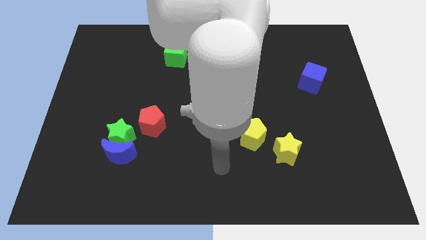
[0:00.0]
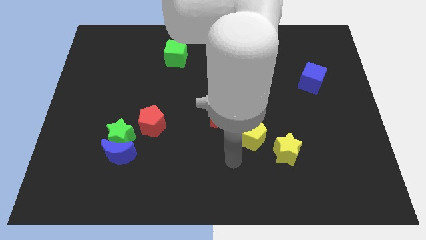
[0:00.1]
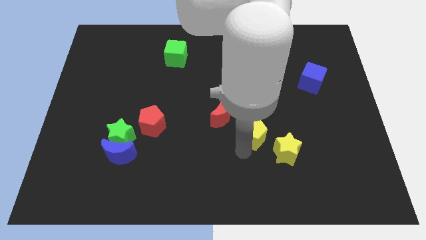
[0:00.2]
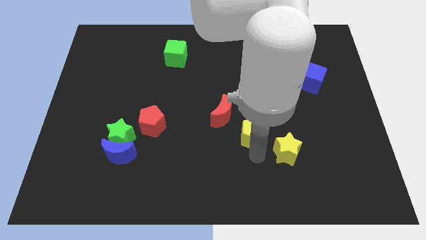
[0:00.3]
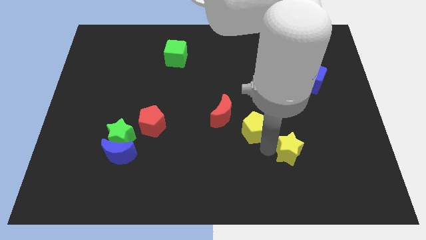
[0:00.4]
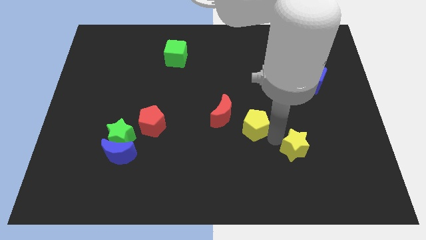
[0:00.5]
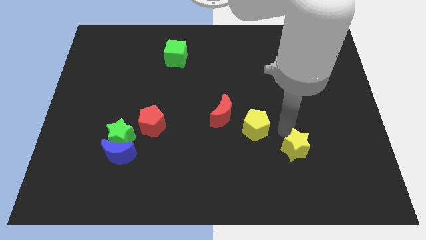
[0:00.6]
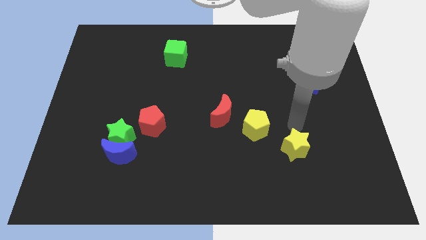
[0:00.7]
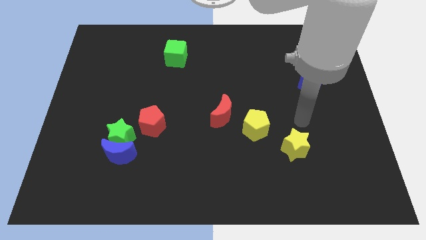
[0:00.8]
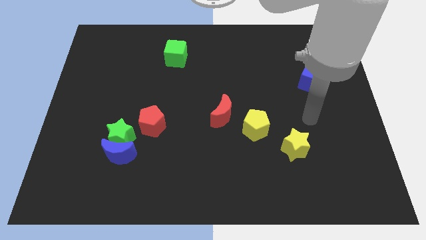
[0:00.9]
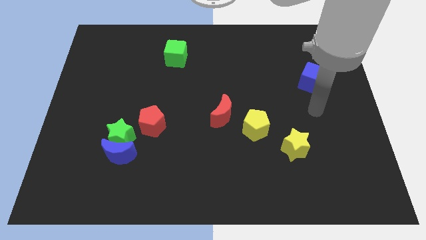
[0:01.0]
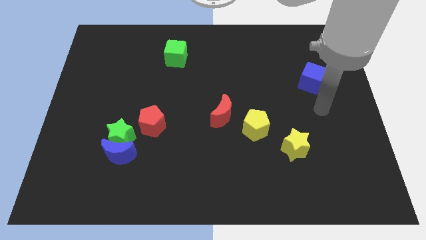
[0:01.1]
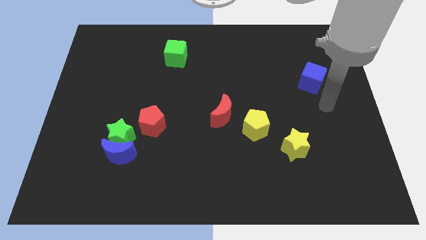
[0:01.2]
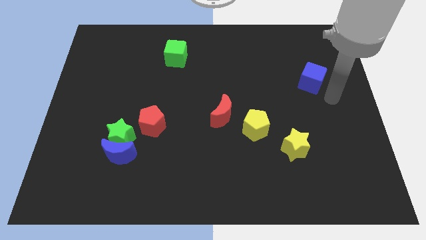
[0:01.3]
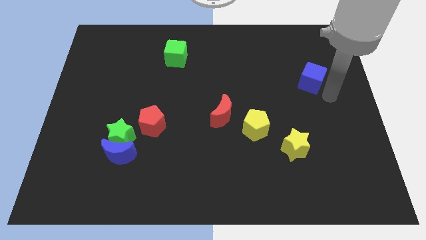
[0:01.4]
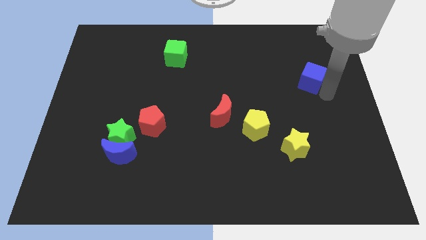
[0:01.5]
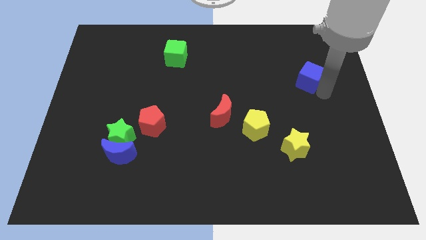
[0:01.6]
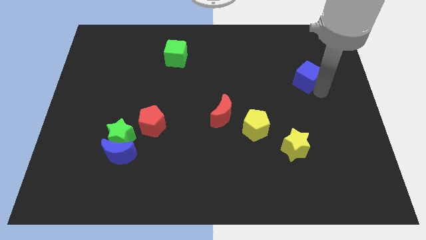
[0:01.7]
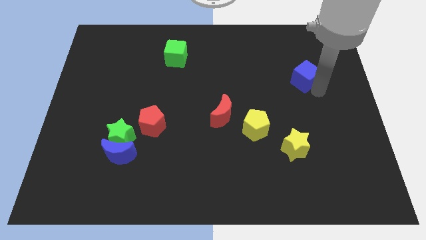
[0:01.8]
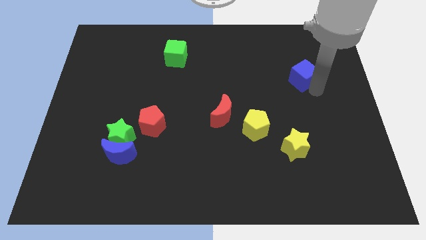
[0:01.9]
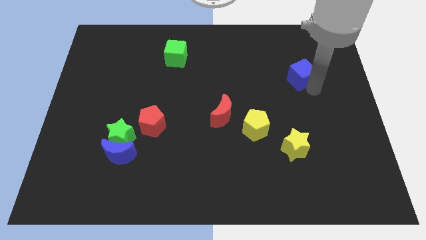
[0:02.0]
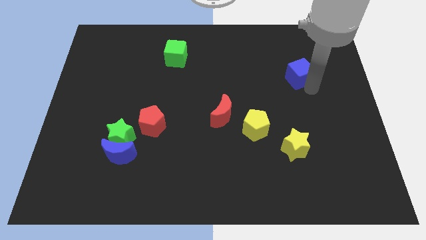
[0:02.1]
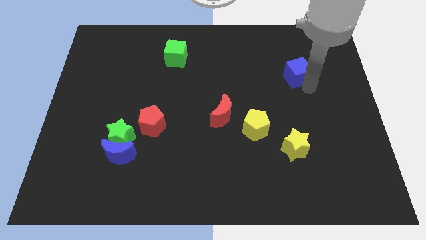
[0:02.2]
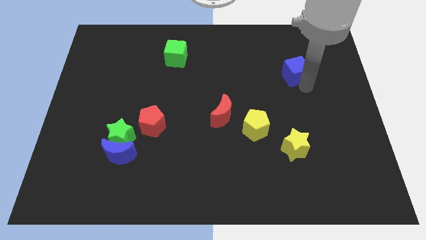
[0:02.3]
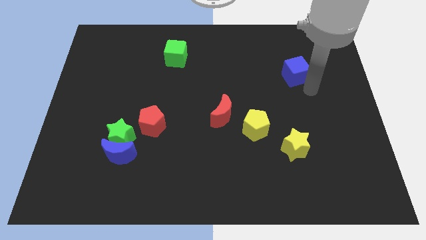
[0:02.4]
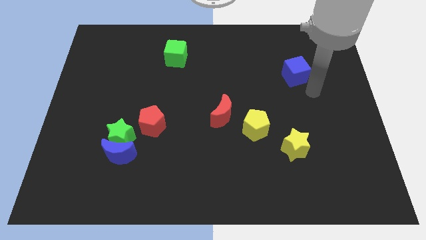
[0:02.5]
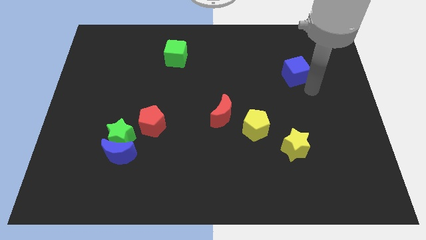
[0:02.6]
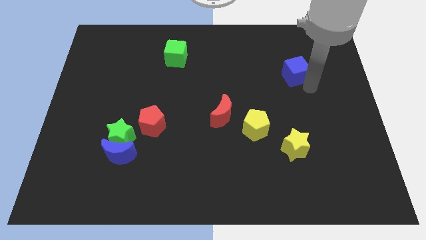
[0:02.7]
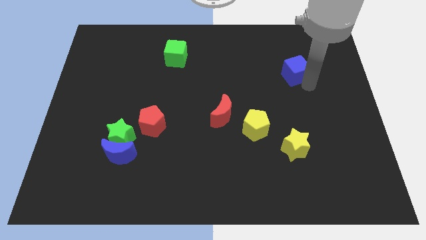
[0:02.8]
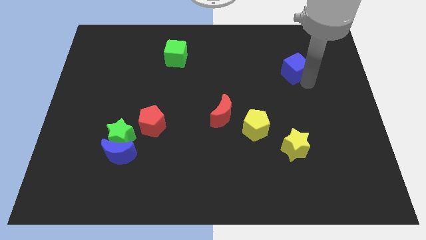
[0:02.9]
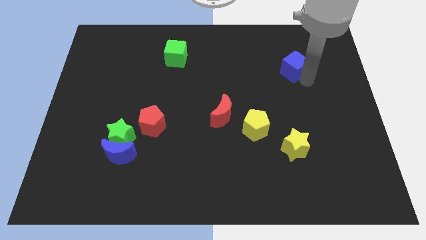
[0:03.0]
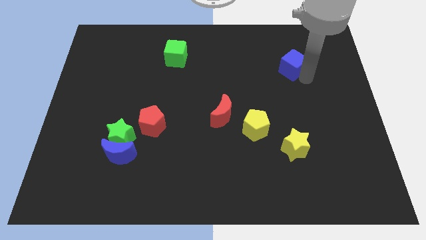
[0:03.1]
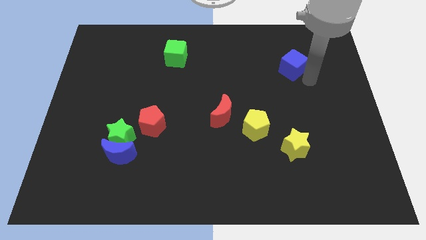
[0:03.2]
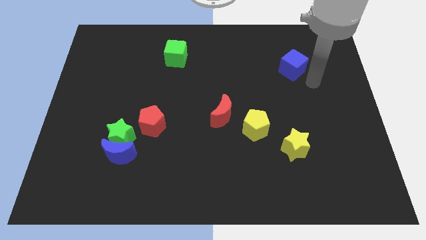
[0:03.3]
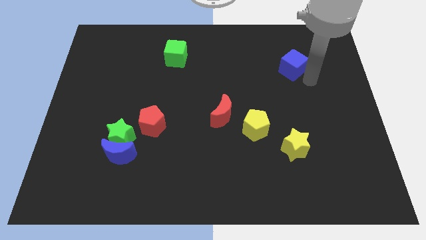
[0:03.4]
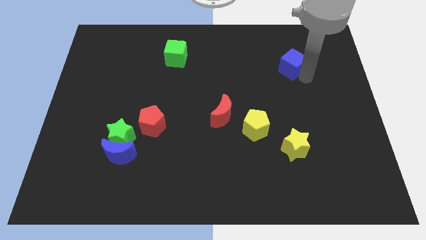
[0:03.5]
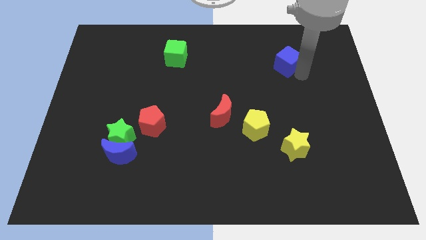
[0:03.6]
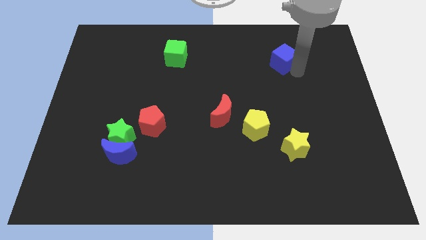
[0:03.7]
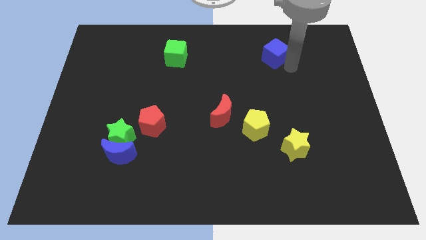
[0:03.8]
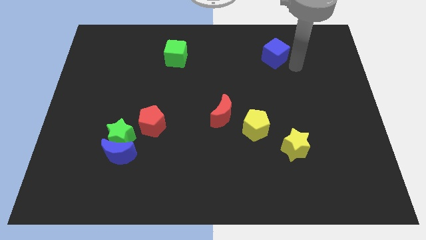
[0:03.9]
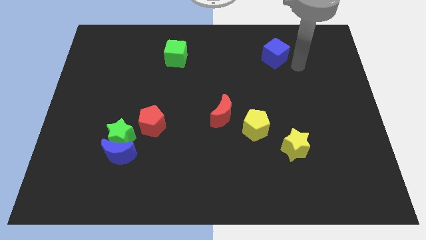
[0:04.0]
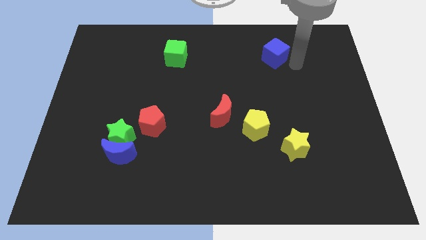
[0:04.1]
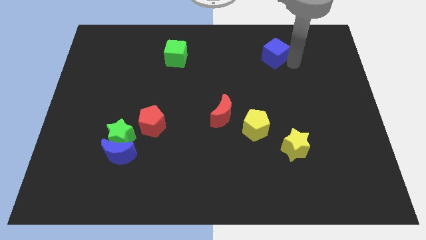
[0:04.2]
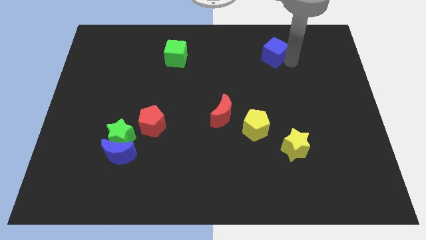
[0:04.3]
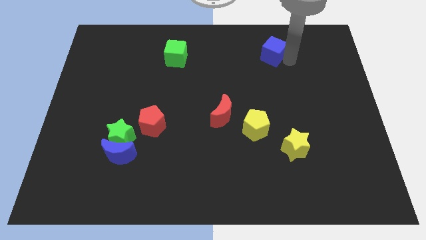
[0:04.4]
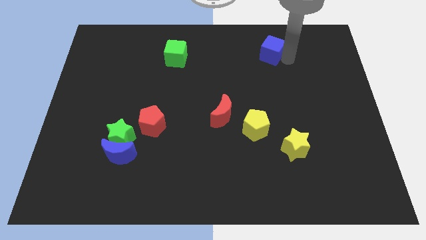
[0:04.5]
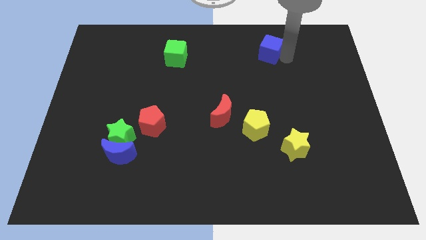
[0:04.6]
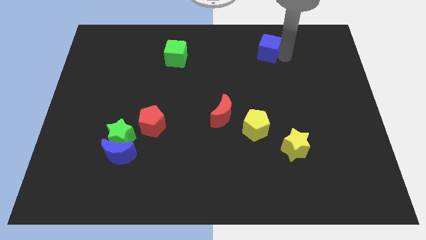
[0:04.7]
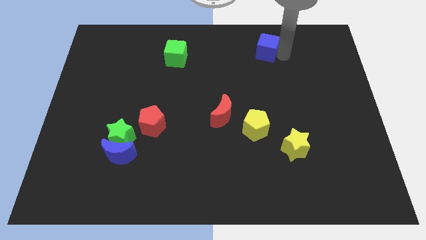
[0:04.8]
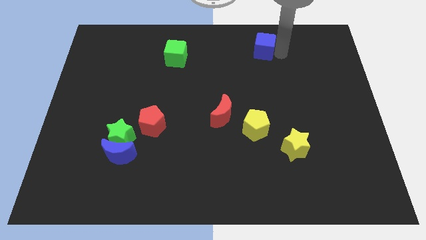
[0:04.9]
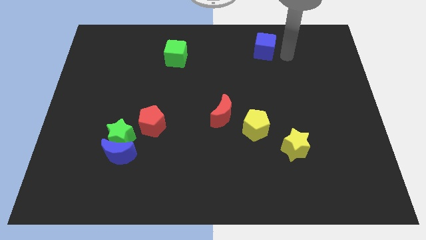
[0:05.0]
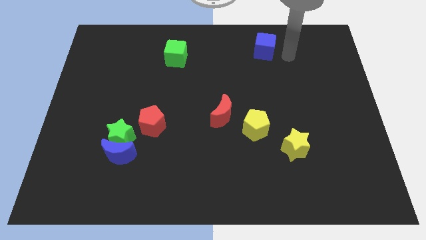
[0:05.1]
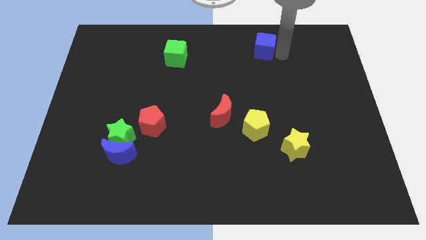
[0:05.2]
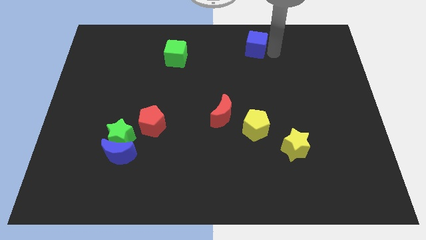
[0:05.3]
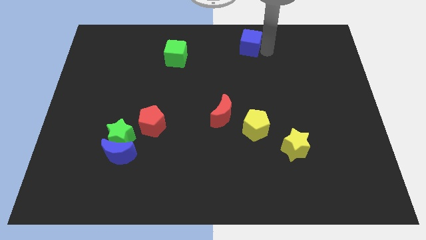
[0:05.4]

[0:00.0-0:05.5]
push the blue cube to the top side
